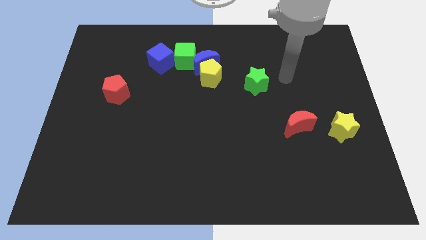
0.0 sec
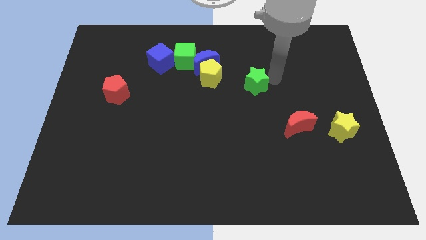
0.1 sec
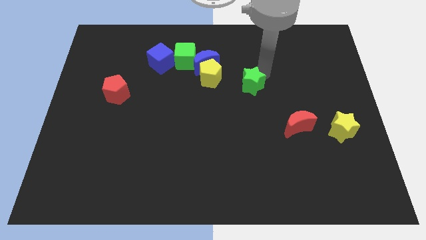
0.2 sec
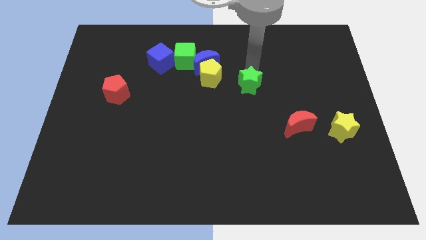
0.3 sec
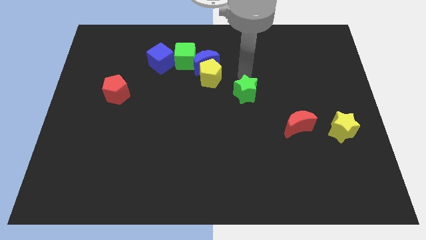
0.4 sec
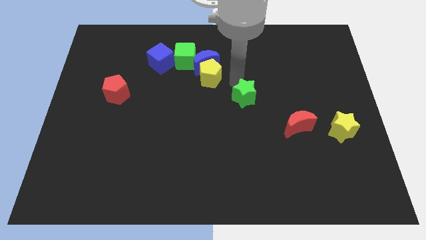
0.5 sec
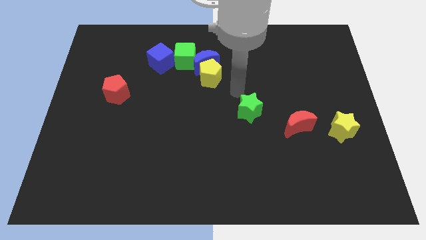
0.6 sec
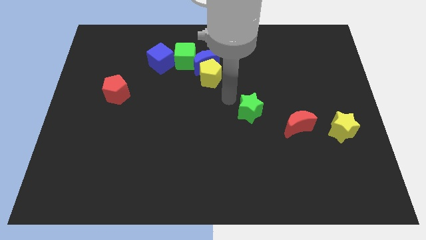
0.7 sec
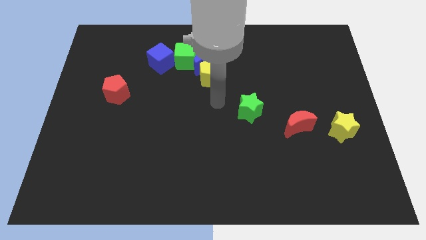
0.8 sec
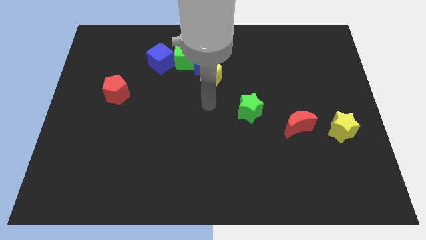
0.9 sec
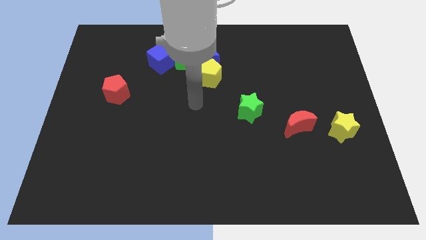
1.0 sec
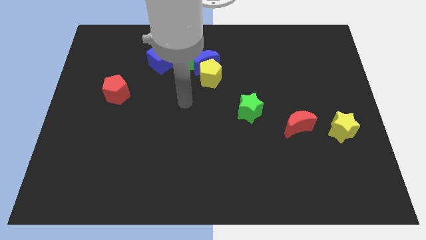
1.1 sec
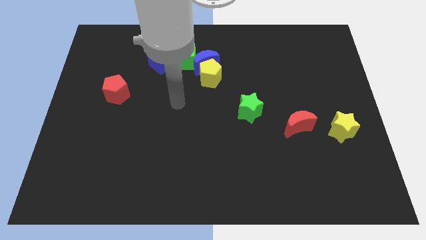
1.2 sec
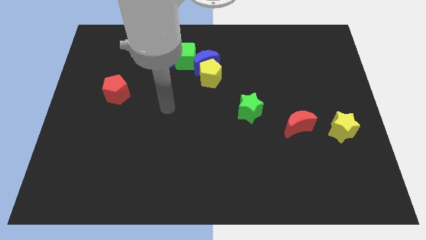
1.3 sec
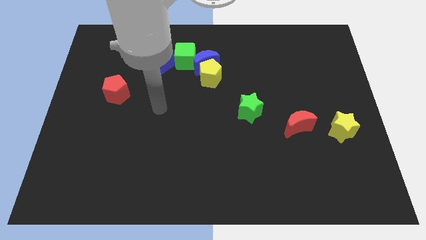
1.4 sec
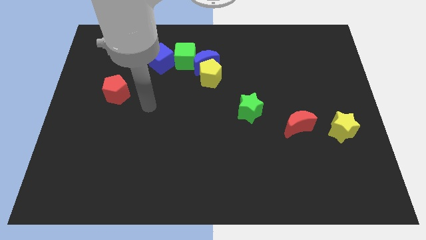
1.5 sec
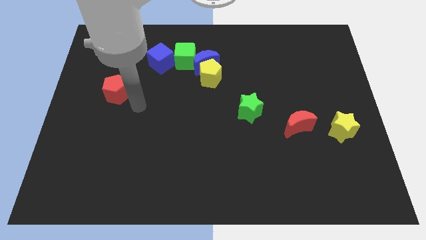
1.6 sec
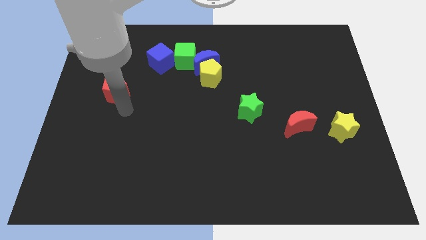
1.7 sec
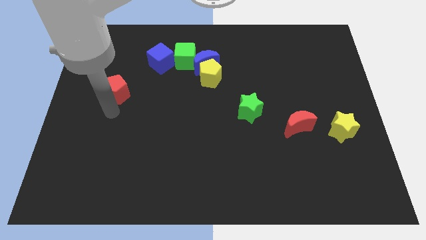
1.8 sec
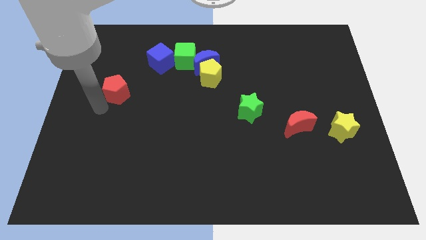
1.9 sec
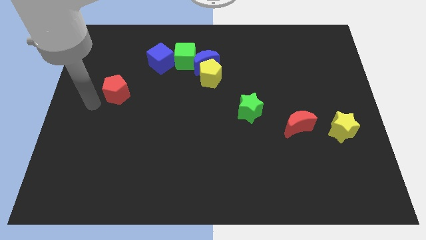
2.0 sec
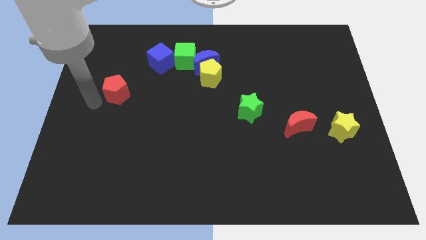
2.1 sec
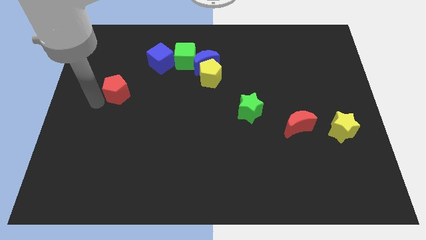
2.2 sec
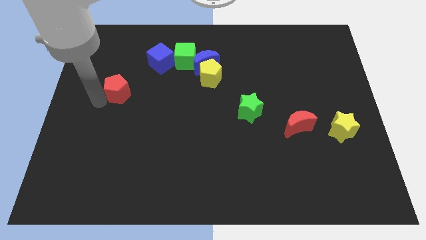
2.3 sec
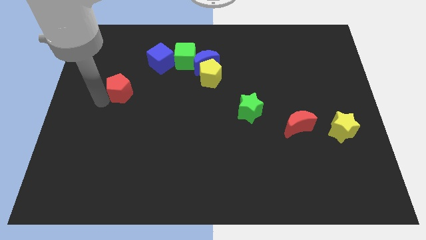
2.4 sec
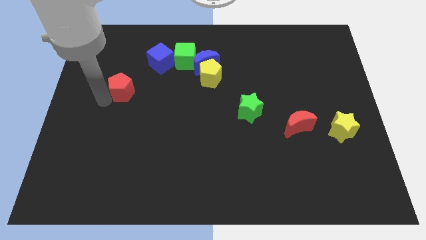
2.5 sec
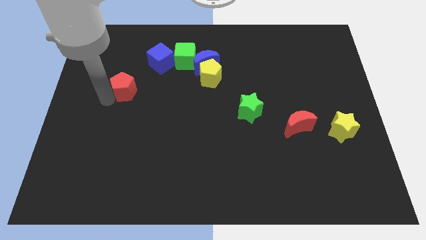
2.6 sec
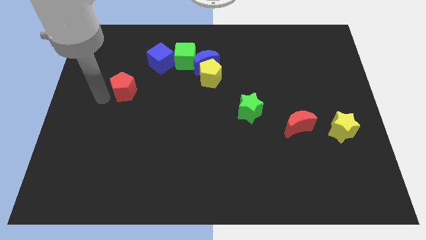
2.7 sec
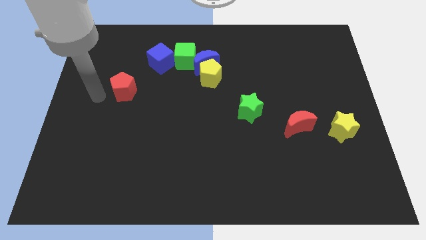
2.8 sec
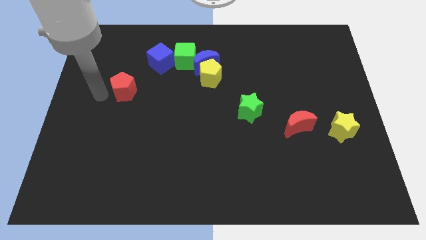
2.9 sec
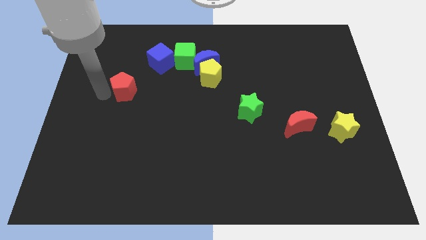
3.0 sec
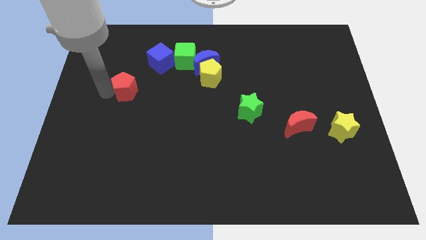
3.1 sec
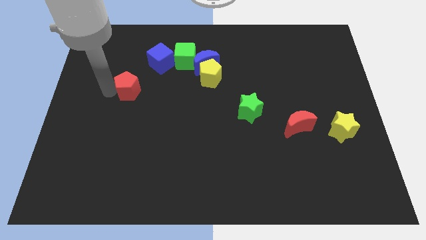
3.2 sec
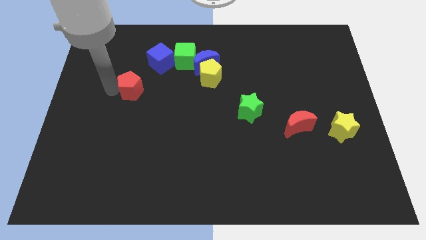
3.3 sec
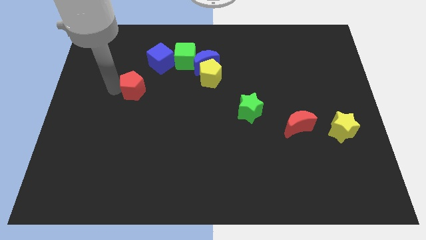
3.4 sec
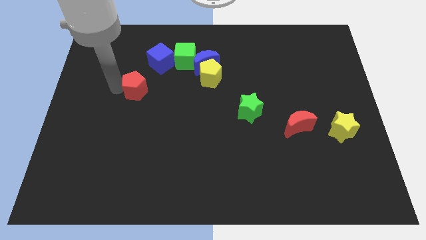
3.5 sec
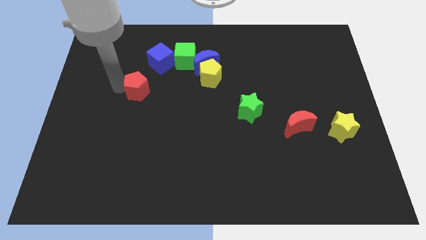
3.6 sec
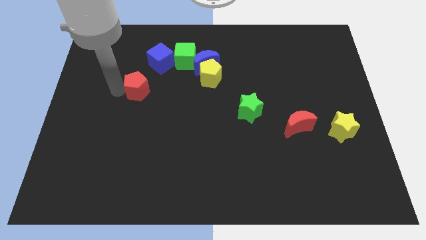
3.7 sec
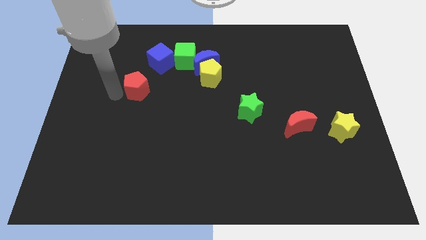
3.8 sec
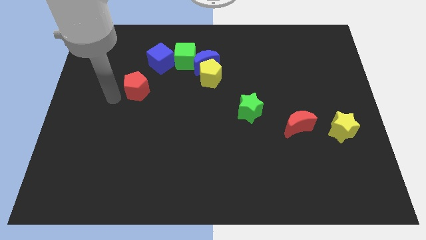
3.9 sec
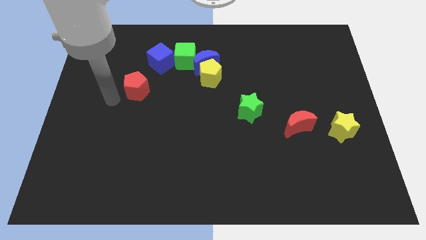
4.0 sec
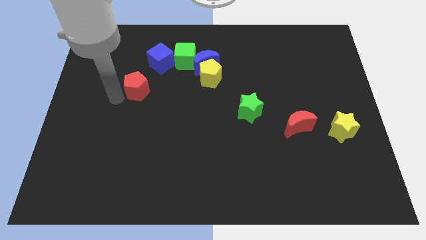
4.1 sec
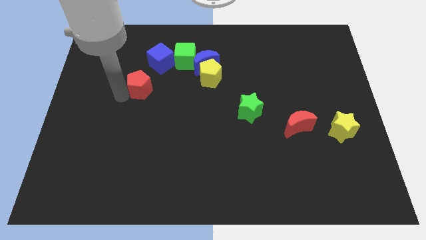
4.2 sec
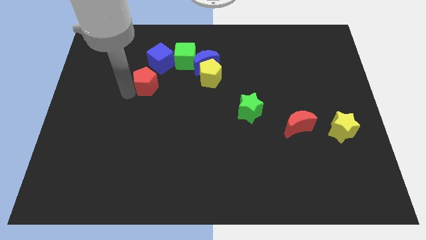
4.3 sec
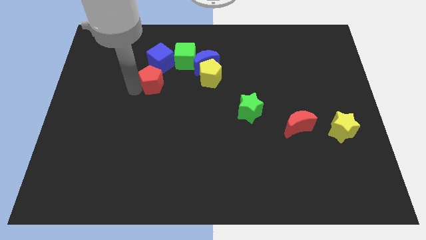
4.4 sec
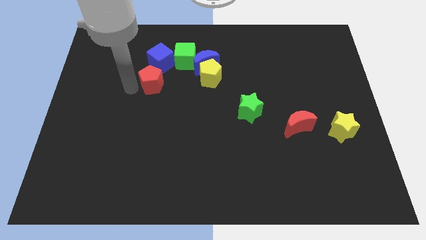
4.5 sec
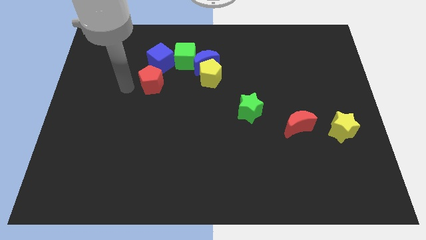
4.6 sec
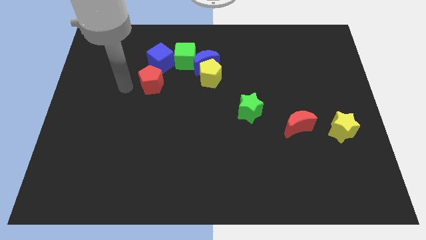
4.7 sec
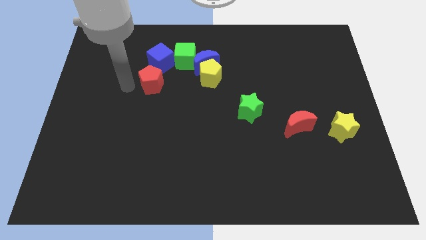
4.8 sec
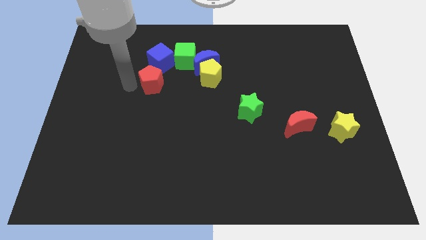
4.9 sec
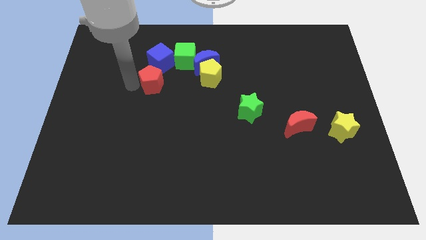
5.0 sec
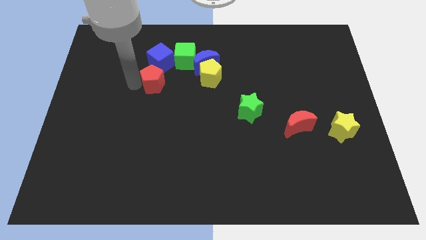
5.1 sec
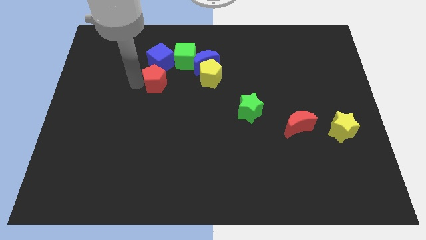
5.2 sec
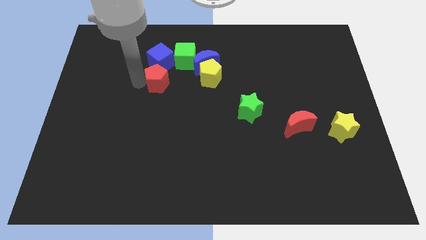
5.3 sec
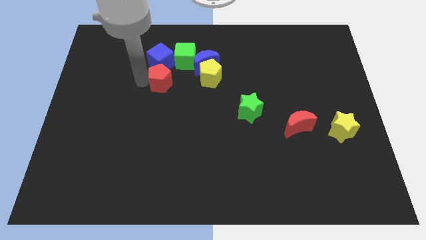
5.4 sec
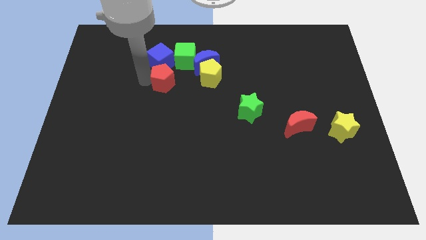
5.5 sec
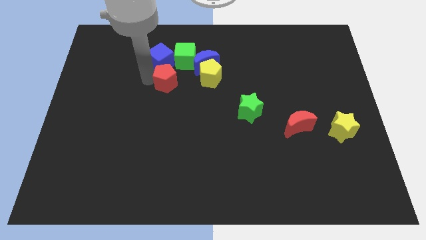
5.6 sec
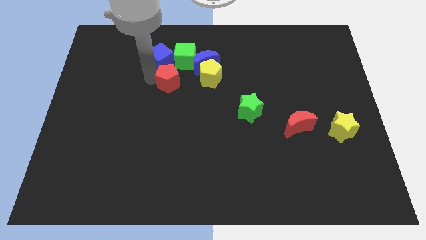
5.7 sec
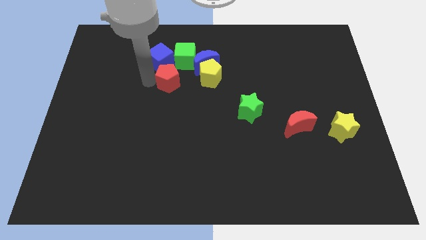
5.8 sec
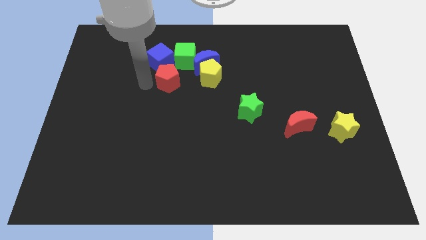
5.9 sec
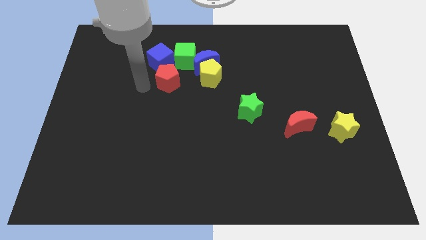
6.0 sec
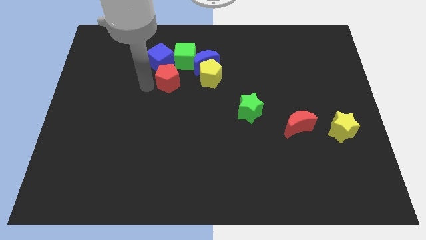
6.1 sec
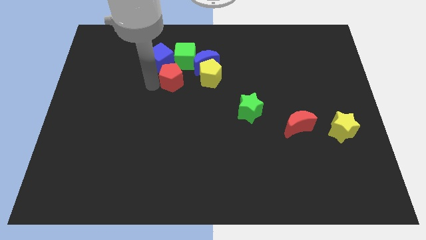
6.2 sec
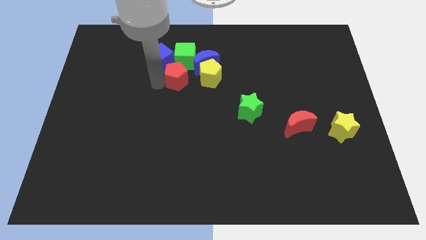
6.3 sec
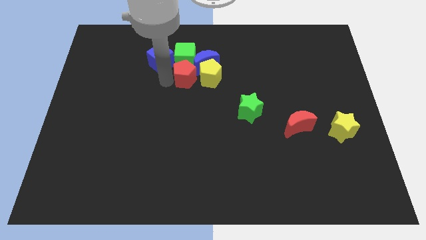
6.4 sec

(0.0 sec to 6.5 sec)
push the red pentagon to the yellow pentagon

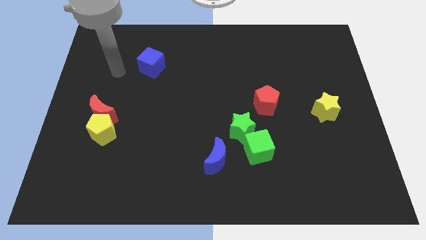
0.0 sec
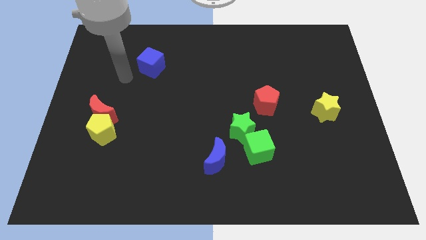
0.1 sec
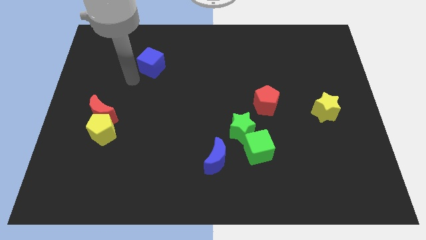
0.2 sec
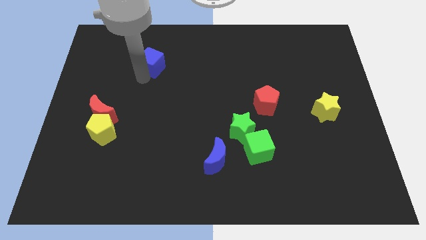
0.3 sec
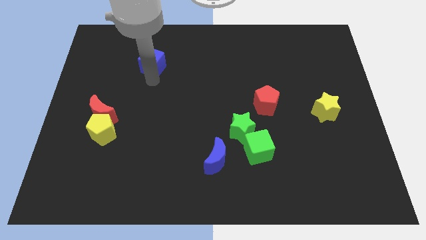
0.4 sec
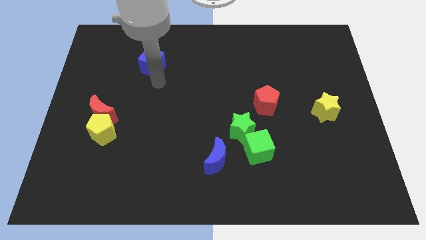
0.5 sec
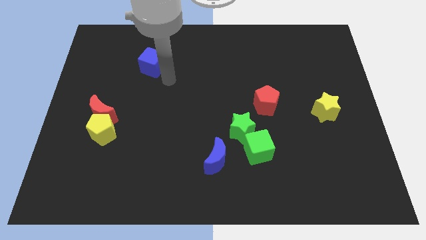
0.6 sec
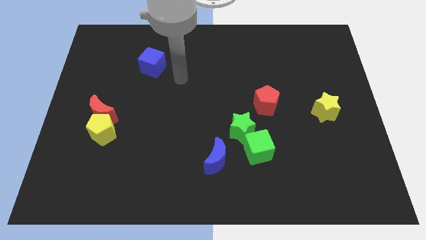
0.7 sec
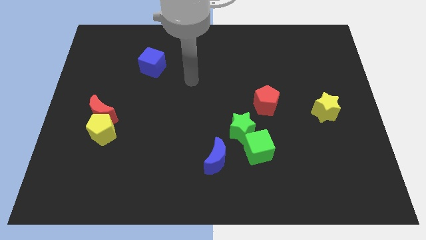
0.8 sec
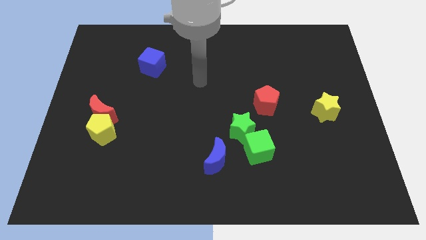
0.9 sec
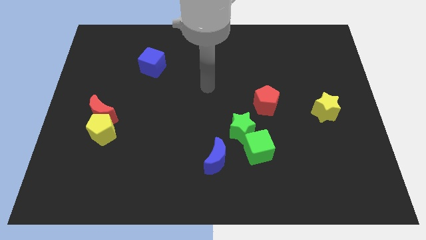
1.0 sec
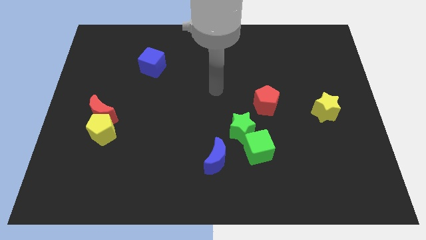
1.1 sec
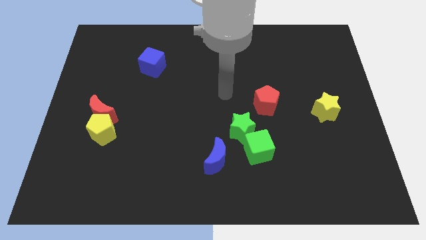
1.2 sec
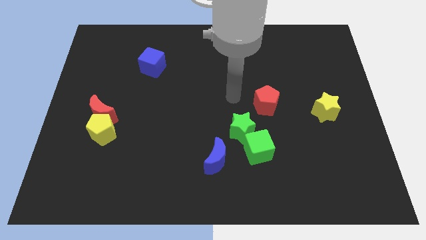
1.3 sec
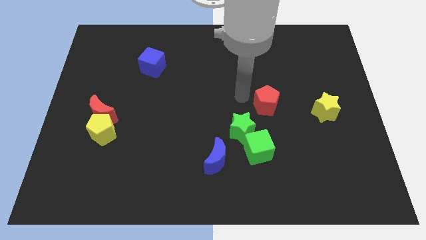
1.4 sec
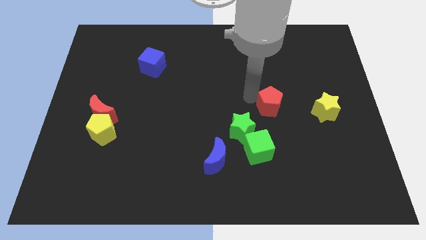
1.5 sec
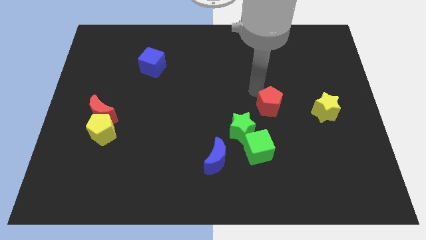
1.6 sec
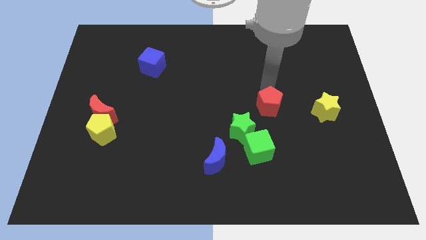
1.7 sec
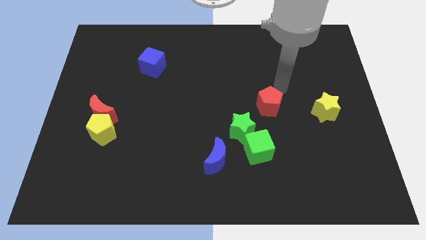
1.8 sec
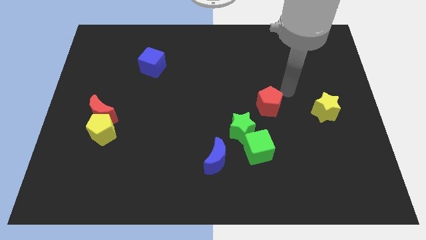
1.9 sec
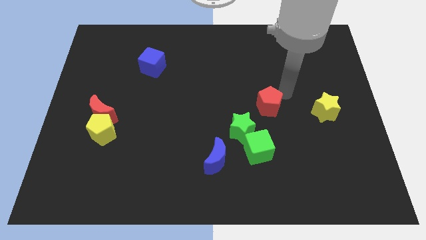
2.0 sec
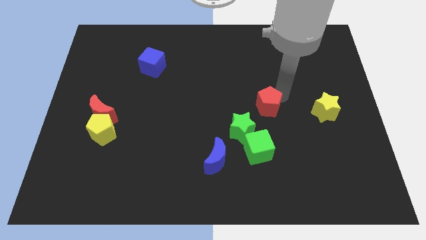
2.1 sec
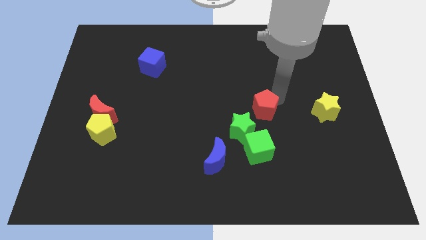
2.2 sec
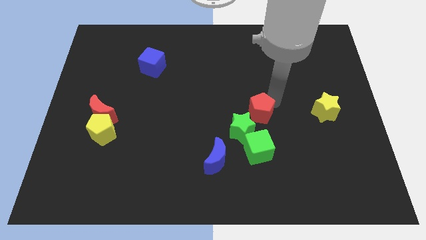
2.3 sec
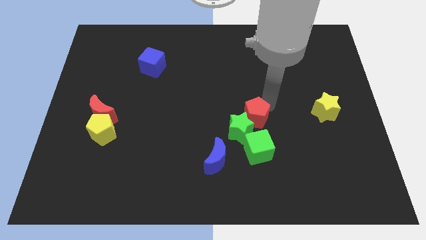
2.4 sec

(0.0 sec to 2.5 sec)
move the red pentagon towards the green star
